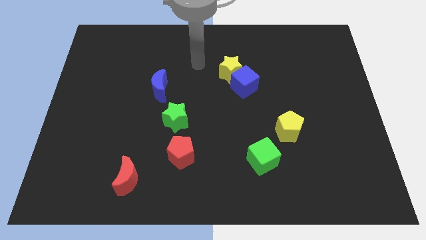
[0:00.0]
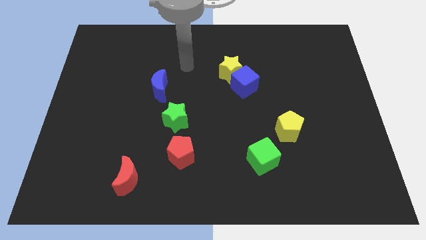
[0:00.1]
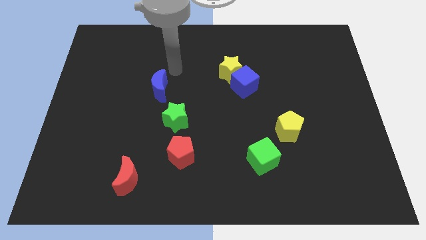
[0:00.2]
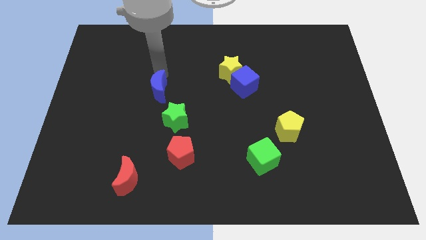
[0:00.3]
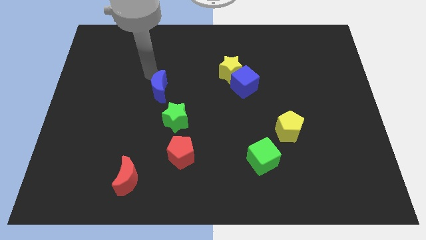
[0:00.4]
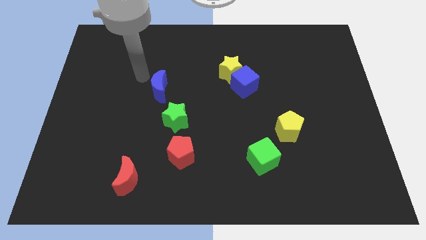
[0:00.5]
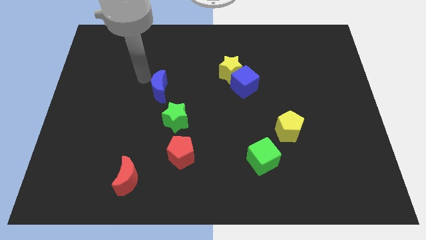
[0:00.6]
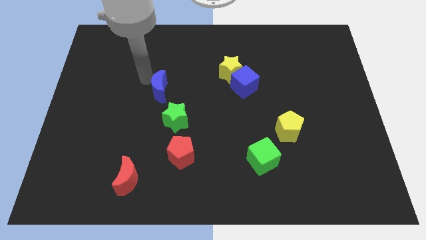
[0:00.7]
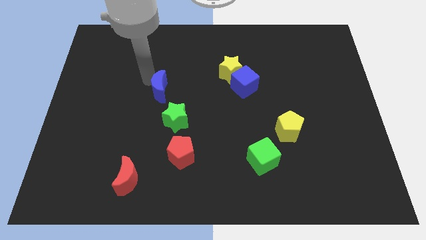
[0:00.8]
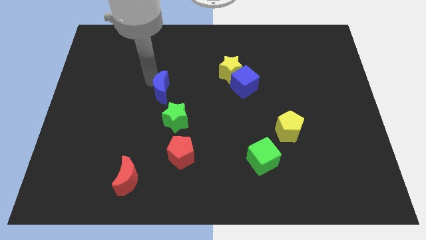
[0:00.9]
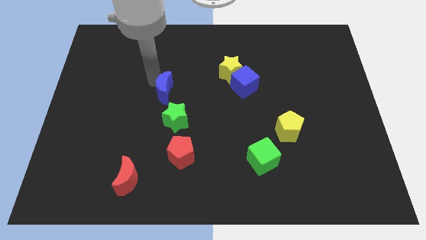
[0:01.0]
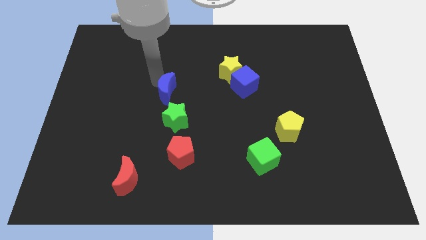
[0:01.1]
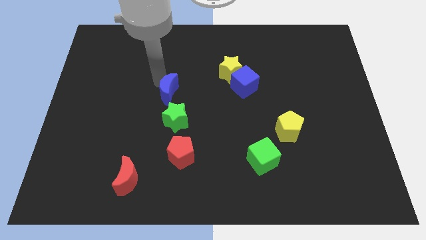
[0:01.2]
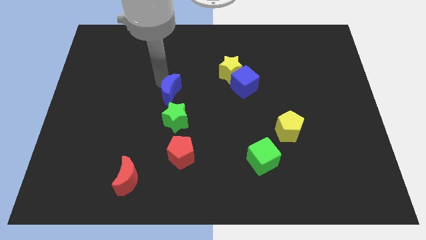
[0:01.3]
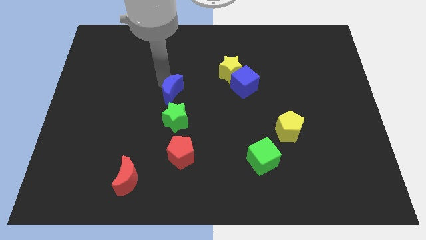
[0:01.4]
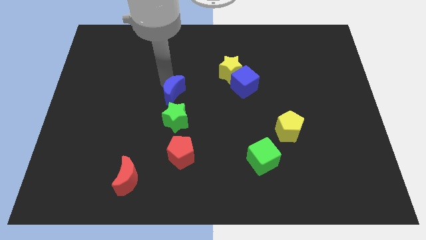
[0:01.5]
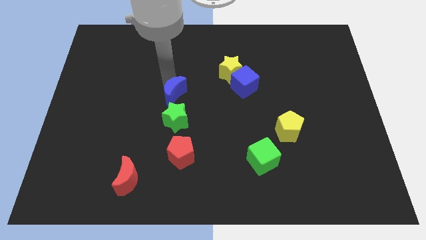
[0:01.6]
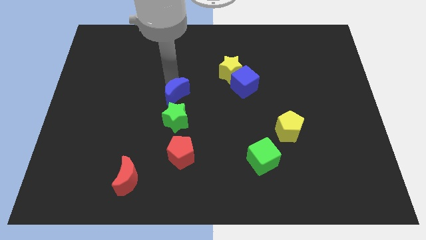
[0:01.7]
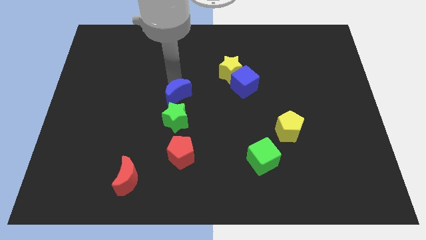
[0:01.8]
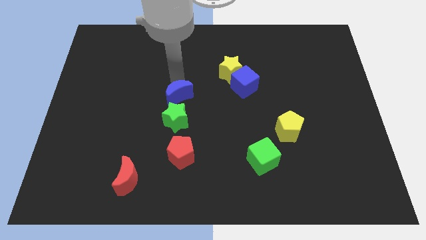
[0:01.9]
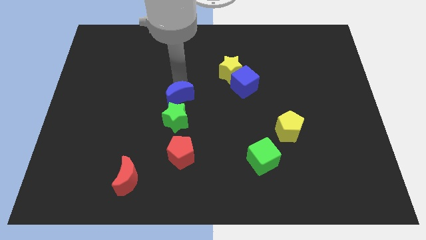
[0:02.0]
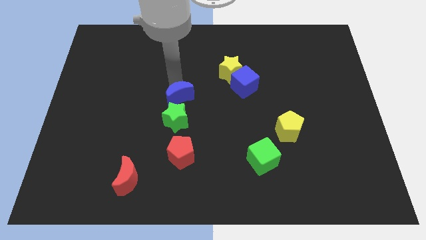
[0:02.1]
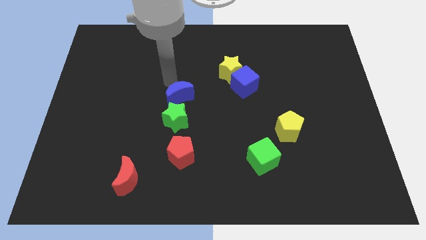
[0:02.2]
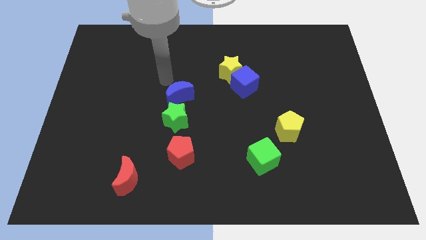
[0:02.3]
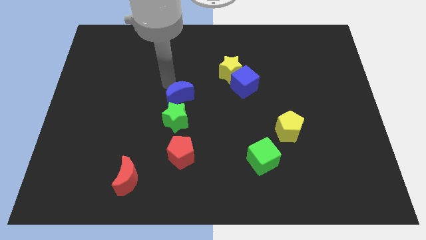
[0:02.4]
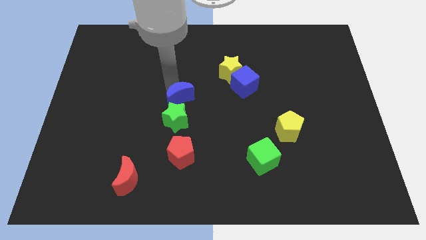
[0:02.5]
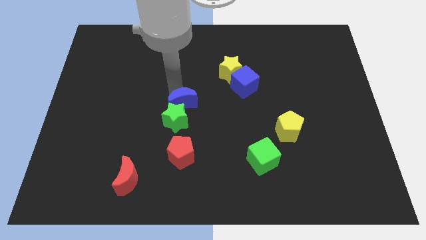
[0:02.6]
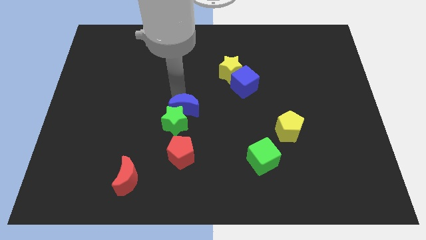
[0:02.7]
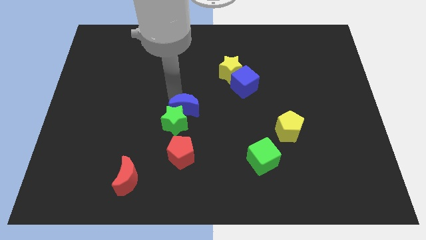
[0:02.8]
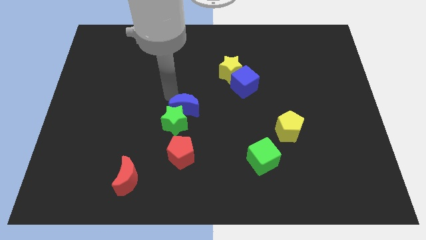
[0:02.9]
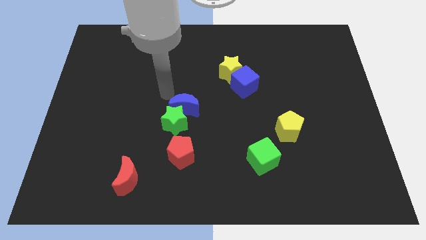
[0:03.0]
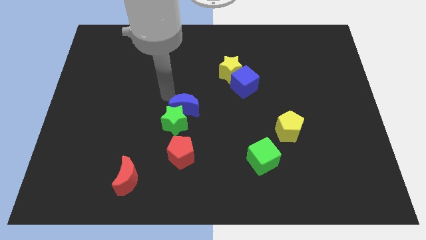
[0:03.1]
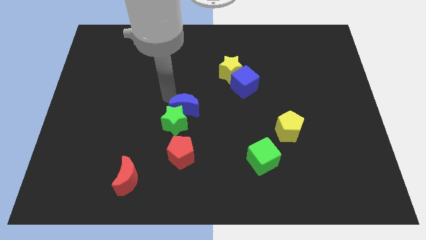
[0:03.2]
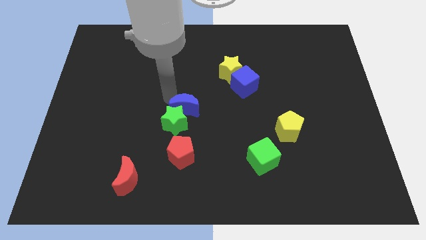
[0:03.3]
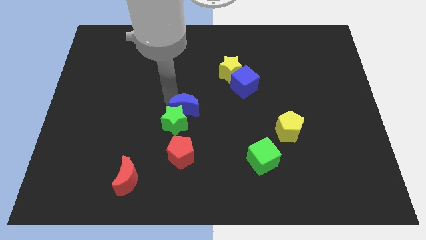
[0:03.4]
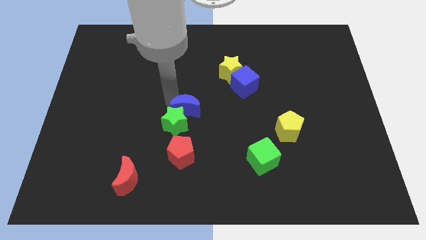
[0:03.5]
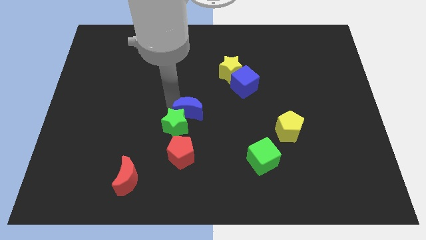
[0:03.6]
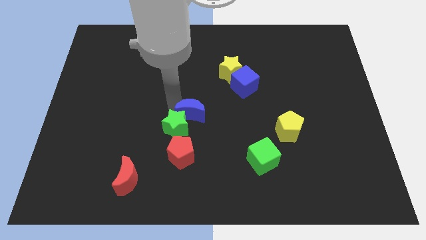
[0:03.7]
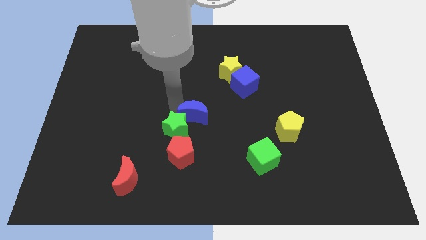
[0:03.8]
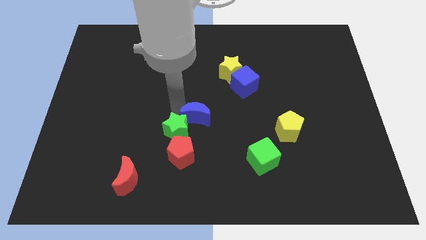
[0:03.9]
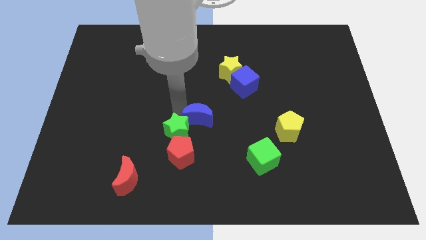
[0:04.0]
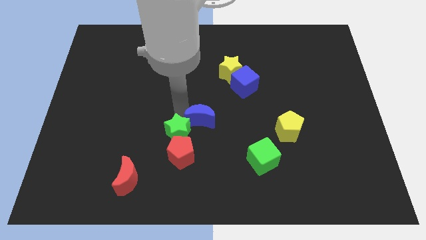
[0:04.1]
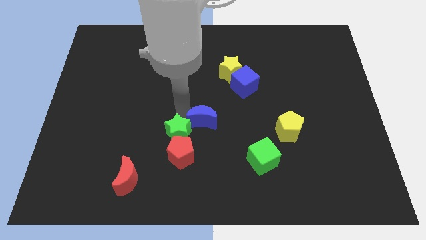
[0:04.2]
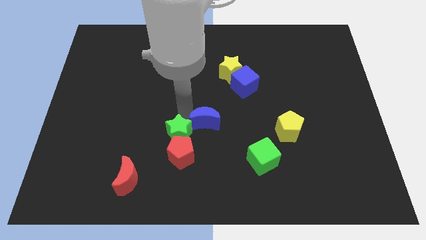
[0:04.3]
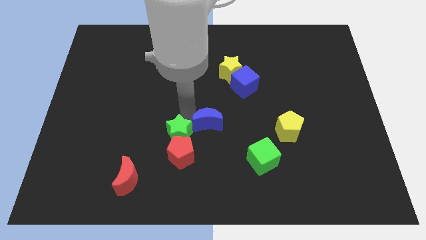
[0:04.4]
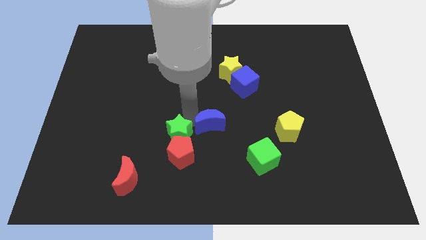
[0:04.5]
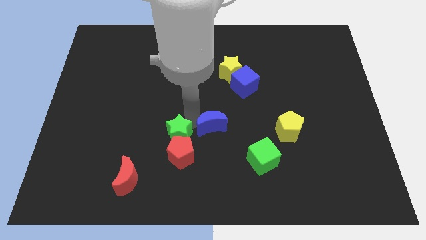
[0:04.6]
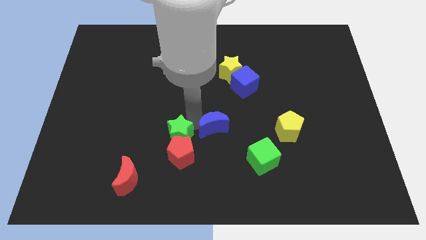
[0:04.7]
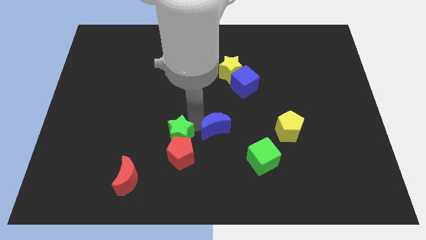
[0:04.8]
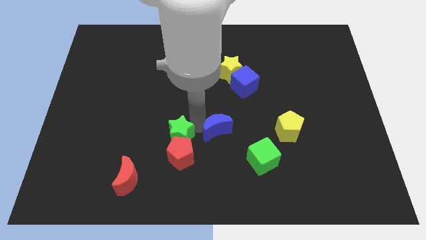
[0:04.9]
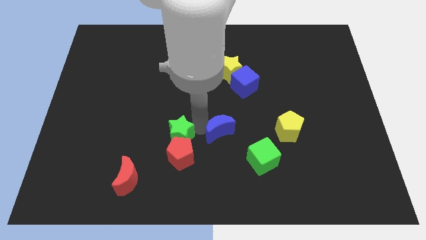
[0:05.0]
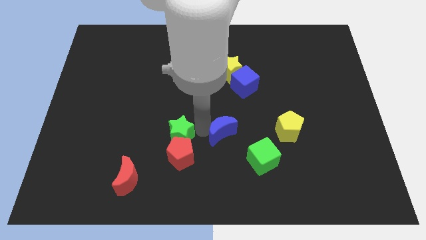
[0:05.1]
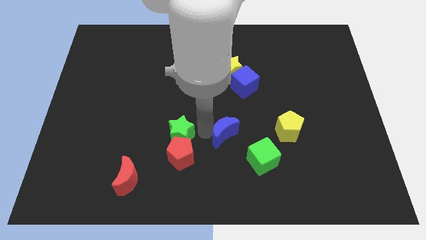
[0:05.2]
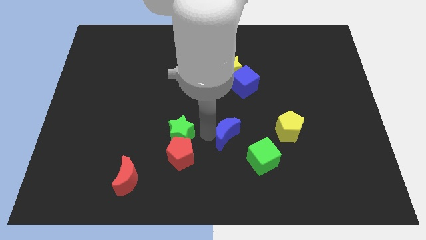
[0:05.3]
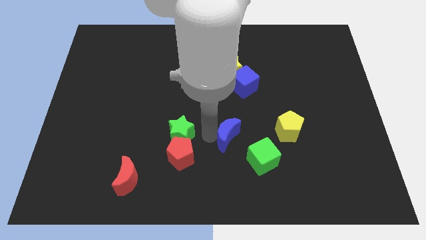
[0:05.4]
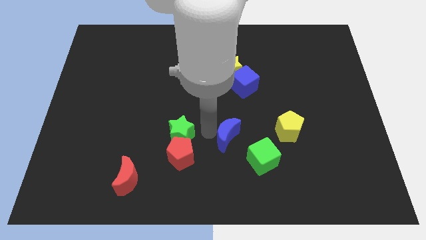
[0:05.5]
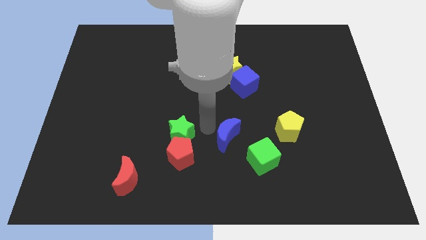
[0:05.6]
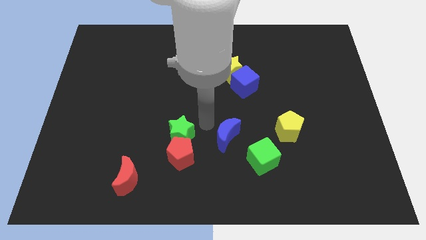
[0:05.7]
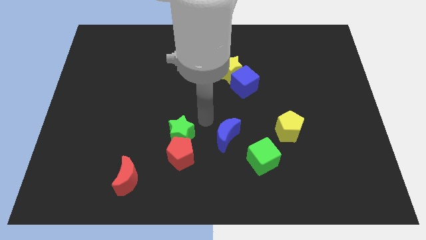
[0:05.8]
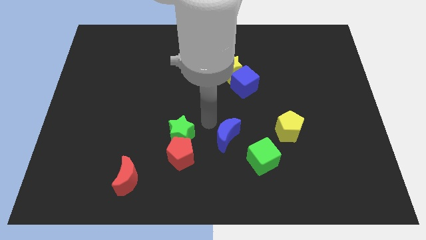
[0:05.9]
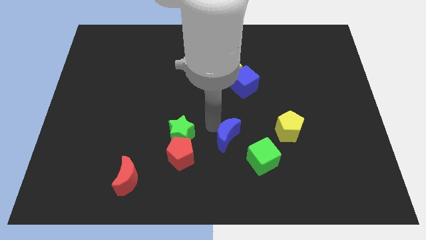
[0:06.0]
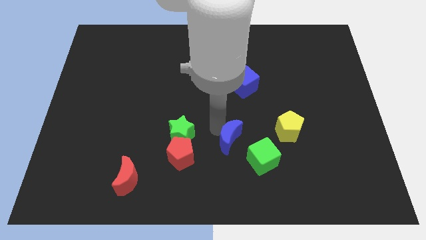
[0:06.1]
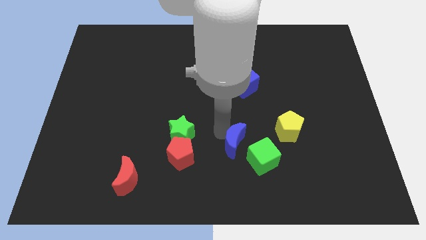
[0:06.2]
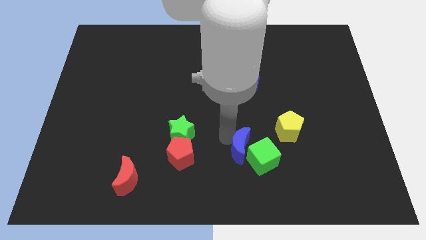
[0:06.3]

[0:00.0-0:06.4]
put the blue moon next to the green cube

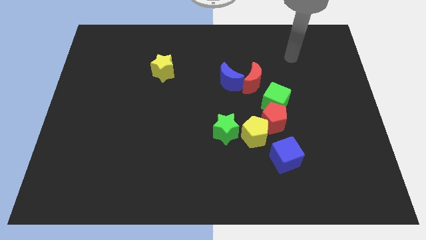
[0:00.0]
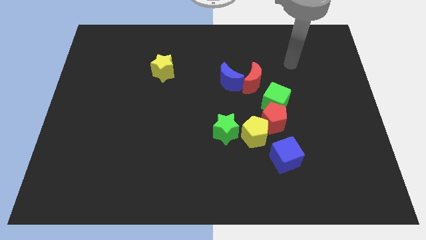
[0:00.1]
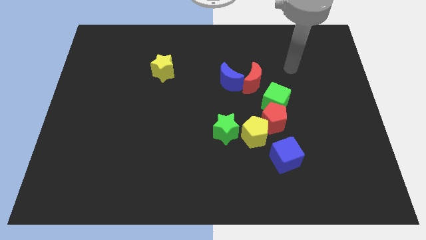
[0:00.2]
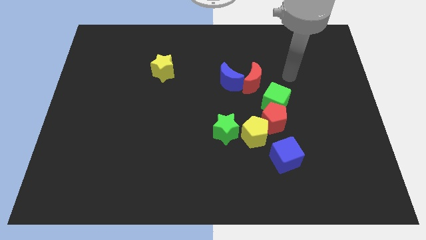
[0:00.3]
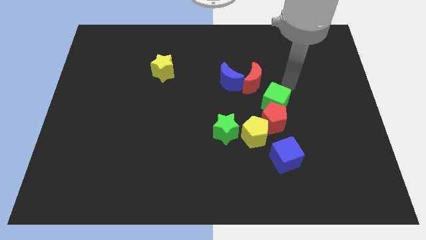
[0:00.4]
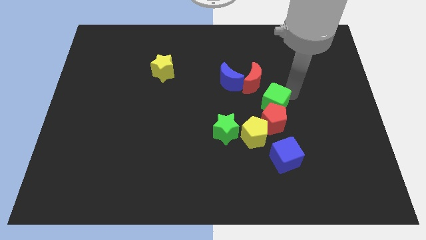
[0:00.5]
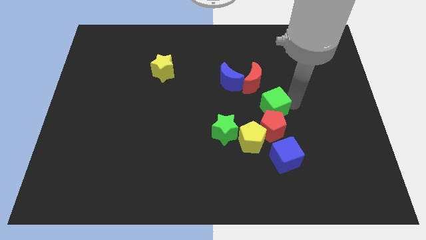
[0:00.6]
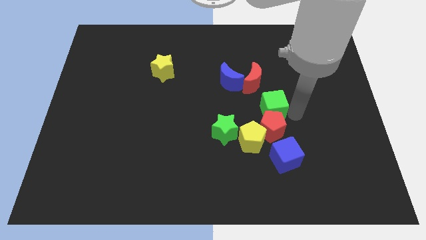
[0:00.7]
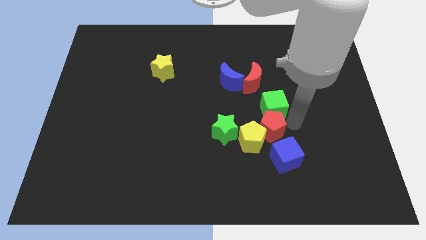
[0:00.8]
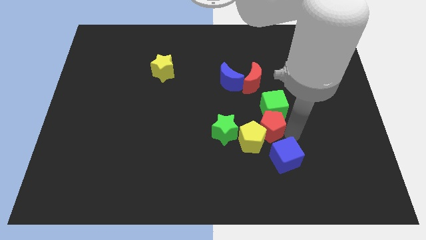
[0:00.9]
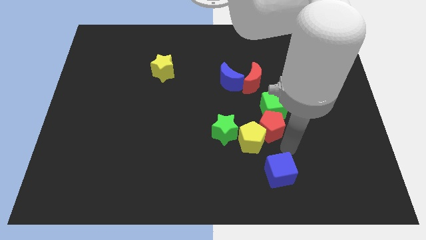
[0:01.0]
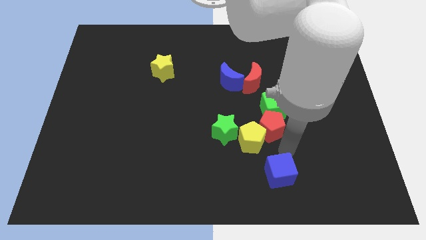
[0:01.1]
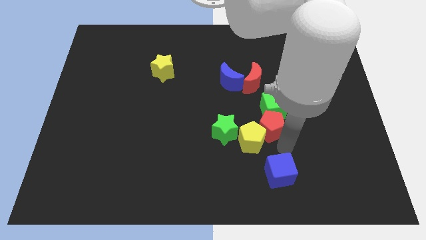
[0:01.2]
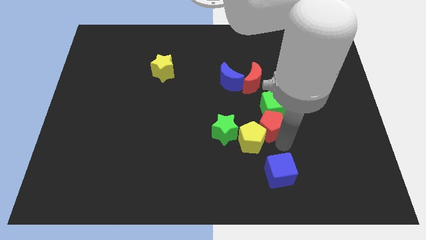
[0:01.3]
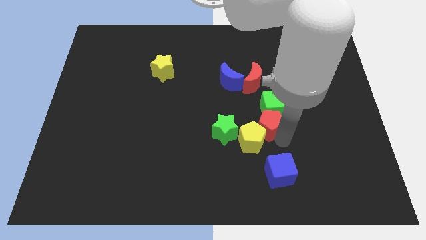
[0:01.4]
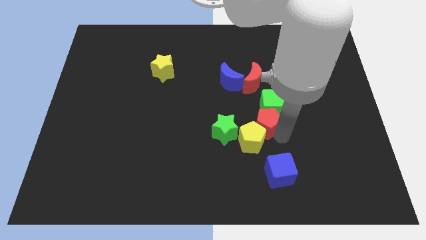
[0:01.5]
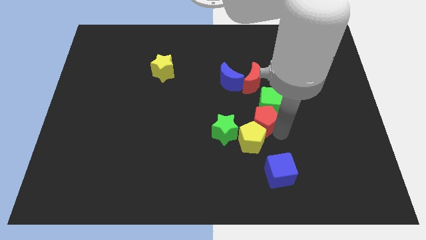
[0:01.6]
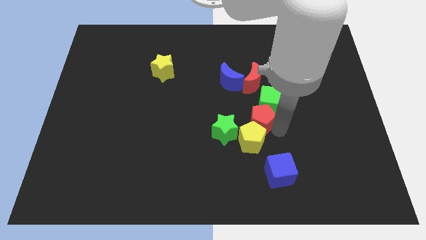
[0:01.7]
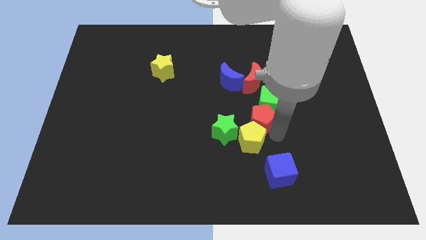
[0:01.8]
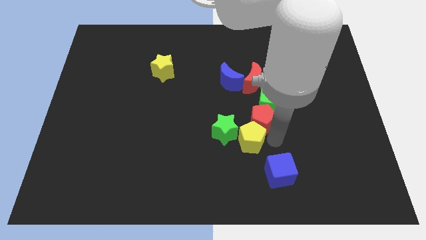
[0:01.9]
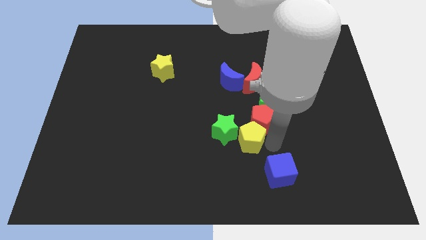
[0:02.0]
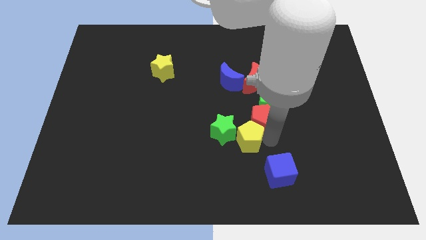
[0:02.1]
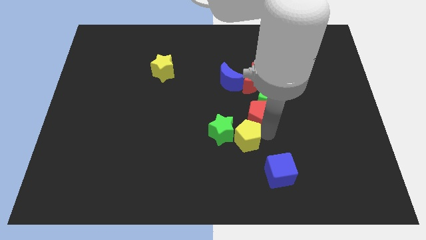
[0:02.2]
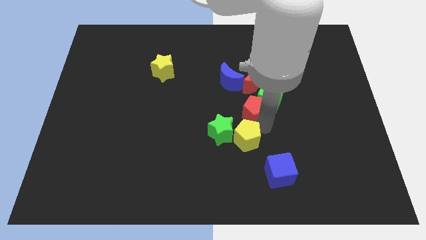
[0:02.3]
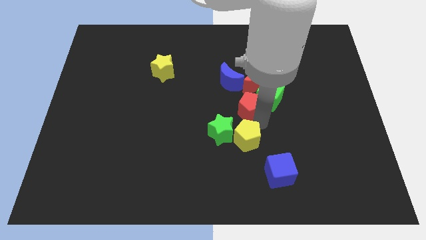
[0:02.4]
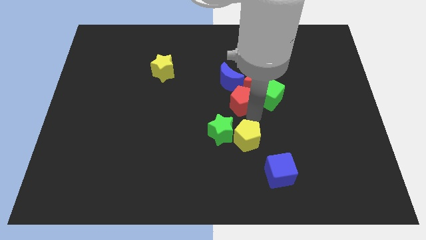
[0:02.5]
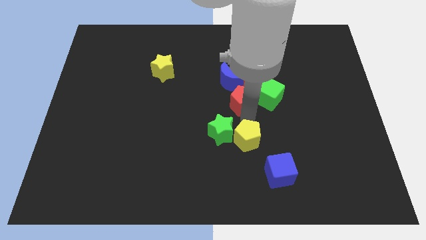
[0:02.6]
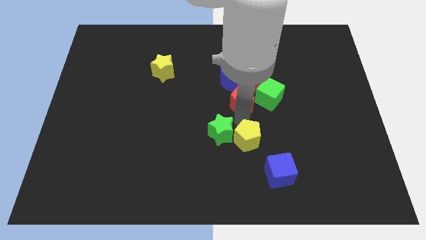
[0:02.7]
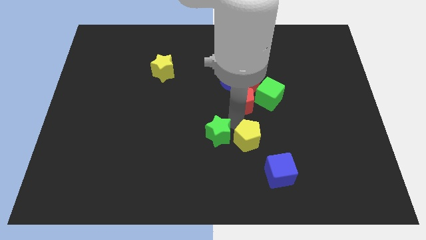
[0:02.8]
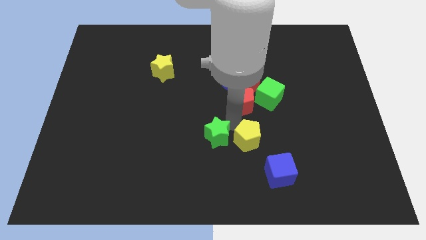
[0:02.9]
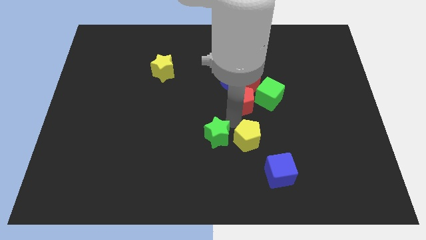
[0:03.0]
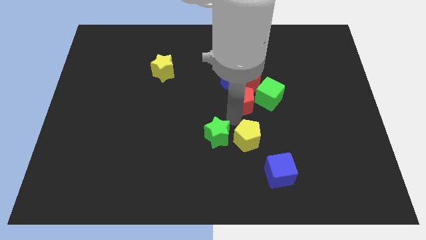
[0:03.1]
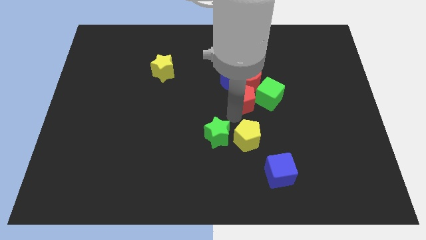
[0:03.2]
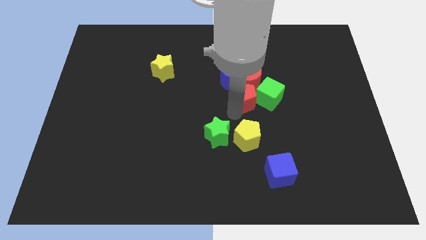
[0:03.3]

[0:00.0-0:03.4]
move the red pentagon to the red moon
